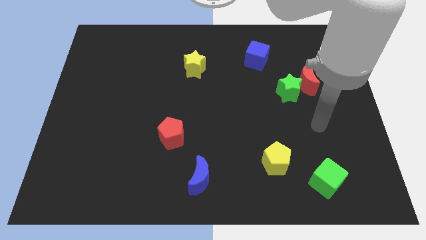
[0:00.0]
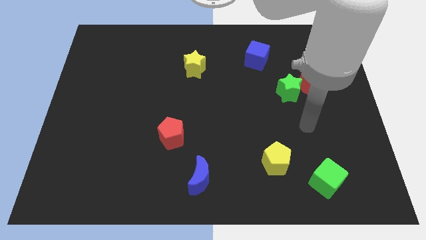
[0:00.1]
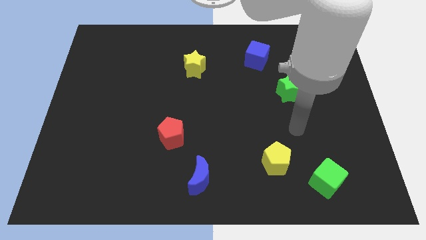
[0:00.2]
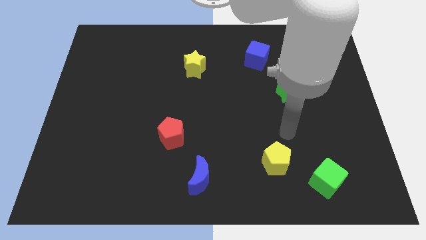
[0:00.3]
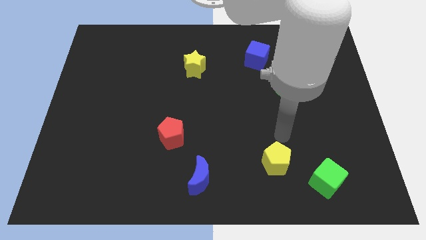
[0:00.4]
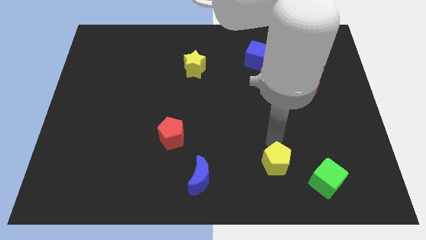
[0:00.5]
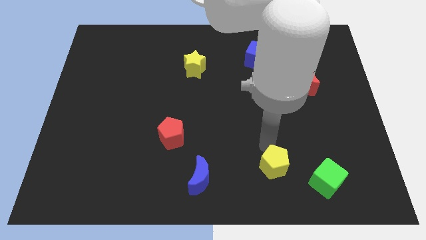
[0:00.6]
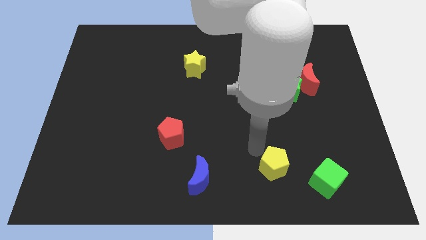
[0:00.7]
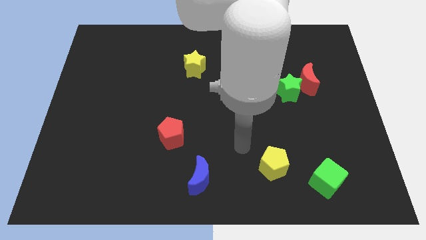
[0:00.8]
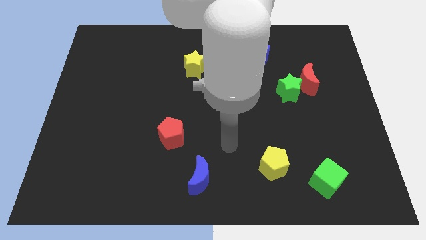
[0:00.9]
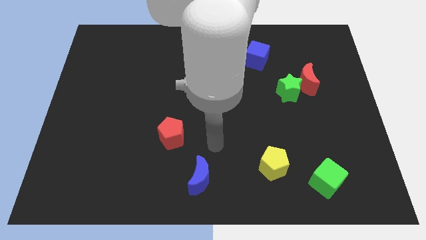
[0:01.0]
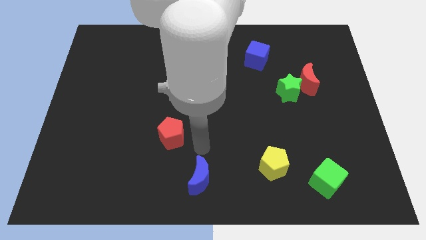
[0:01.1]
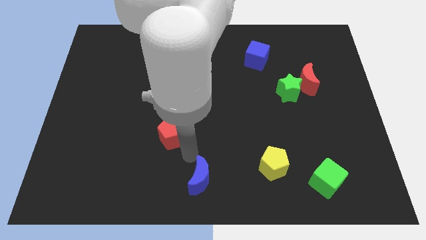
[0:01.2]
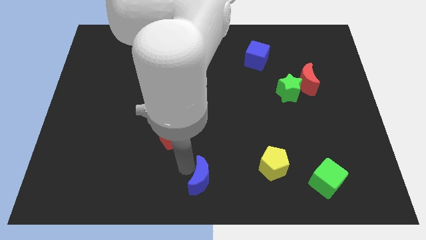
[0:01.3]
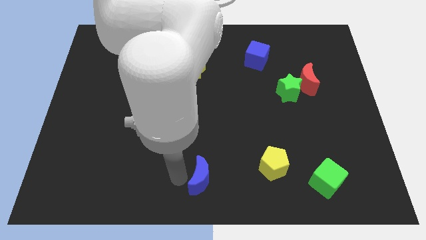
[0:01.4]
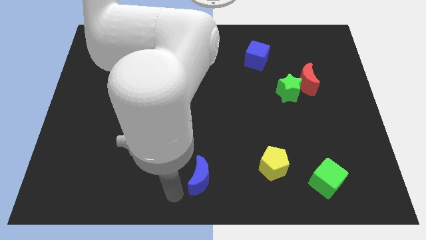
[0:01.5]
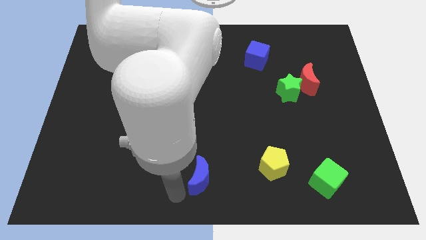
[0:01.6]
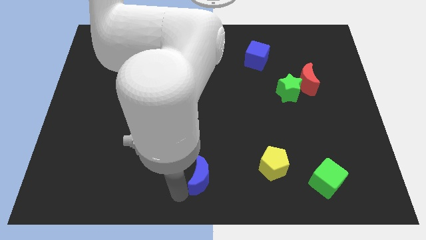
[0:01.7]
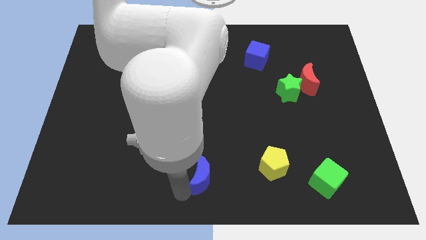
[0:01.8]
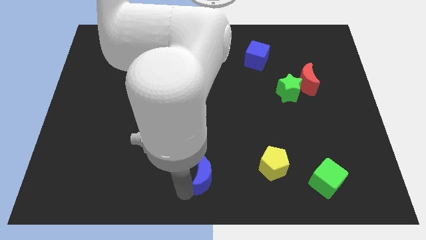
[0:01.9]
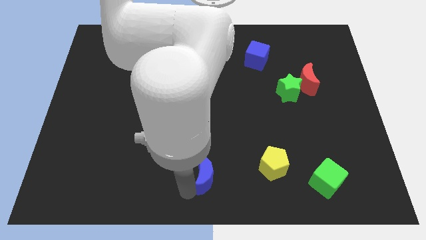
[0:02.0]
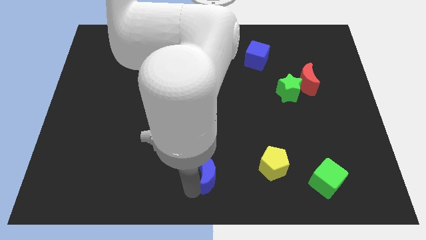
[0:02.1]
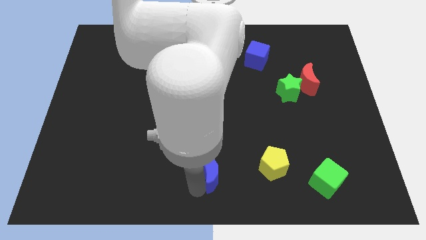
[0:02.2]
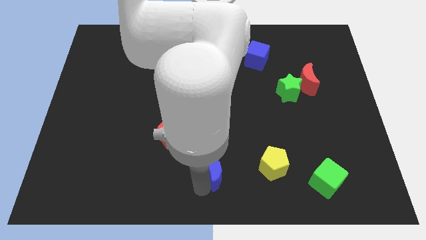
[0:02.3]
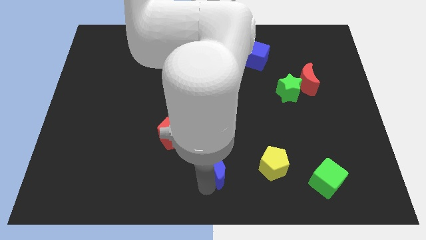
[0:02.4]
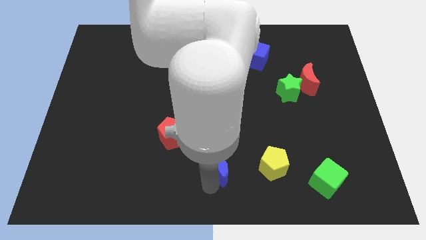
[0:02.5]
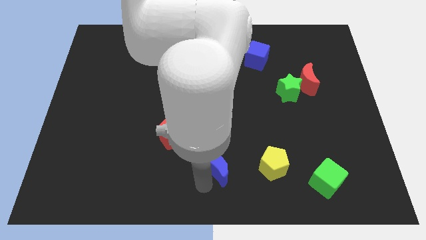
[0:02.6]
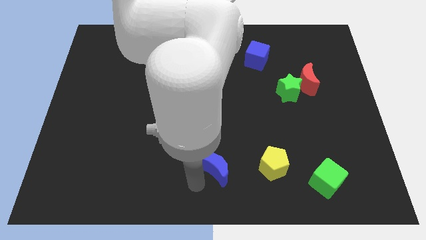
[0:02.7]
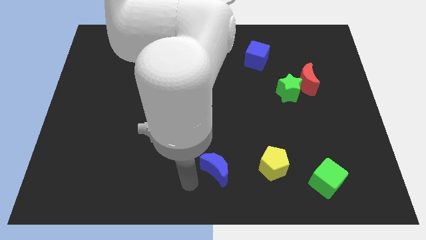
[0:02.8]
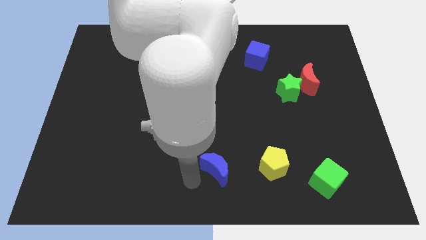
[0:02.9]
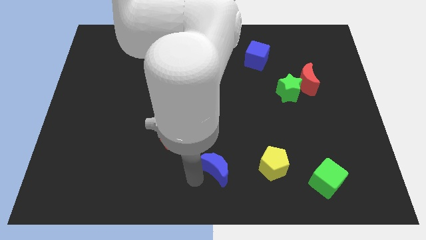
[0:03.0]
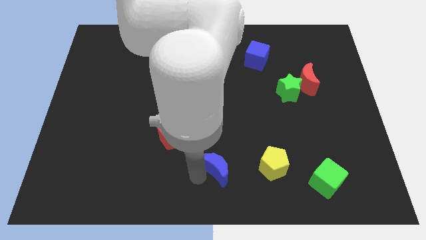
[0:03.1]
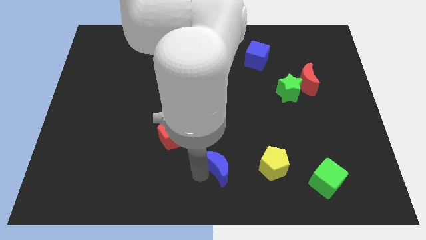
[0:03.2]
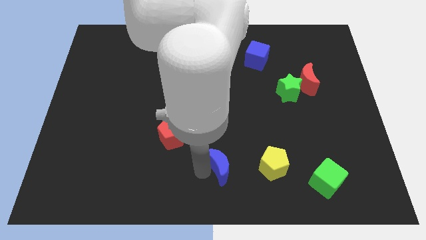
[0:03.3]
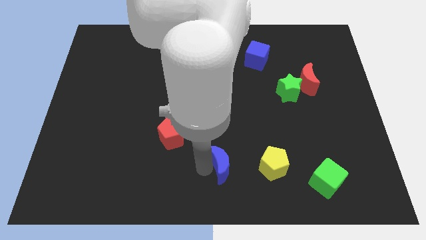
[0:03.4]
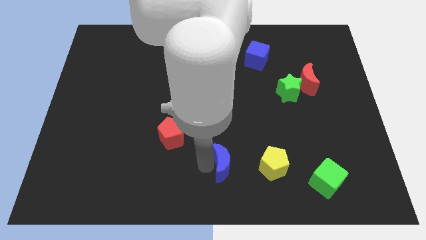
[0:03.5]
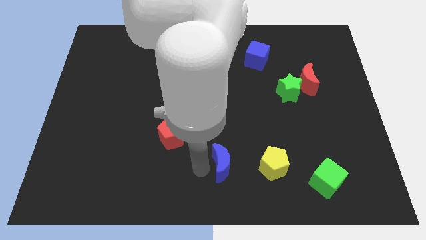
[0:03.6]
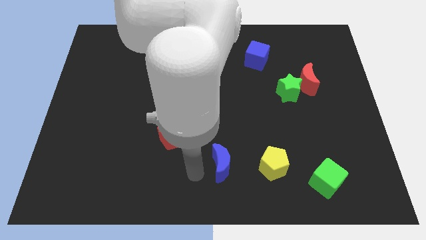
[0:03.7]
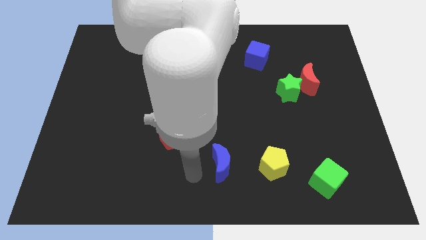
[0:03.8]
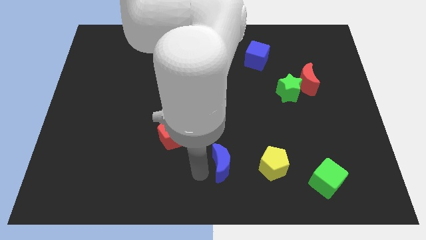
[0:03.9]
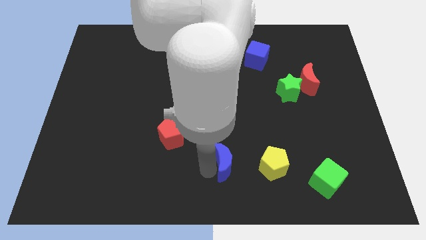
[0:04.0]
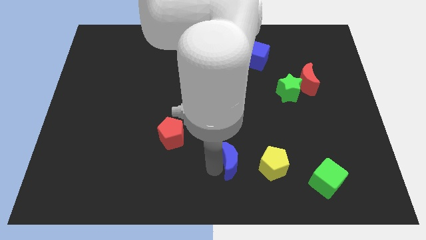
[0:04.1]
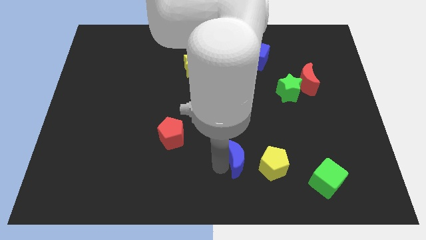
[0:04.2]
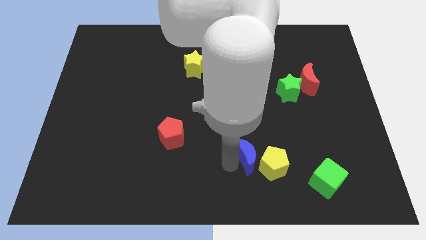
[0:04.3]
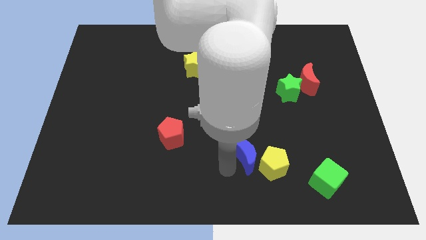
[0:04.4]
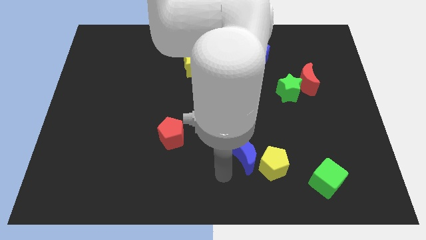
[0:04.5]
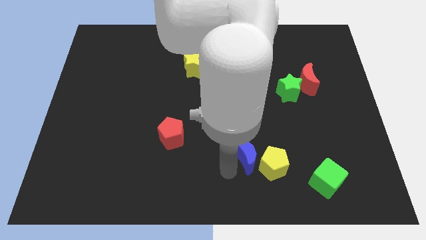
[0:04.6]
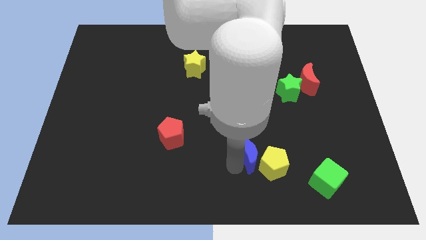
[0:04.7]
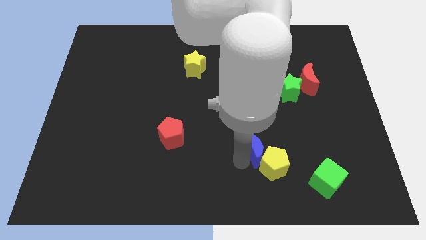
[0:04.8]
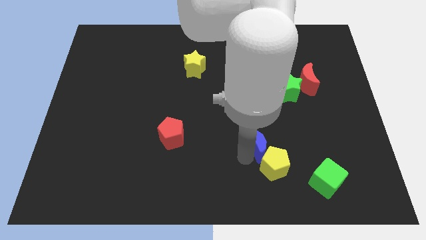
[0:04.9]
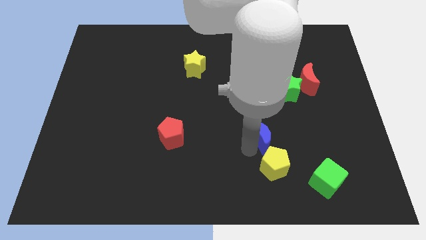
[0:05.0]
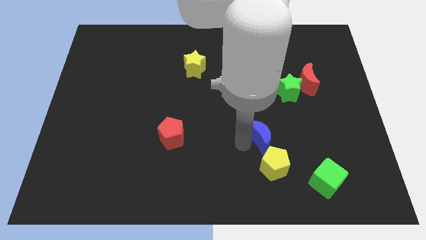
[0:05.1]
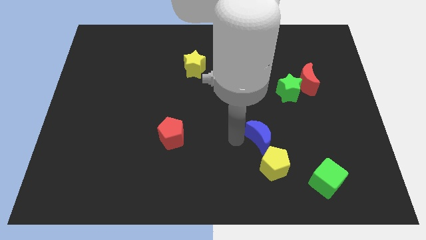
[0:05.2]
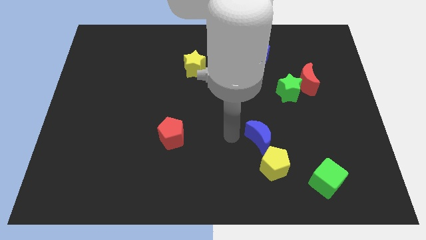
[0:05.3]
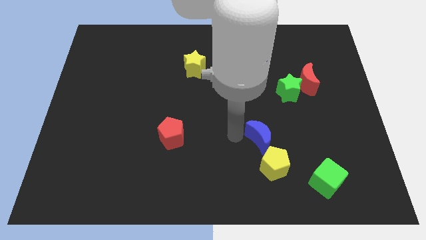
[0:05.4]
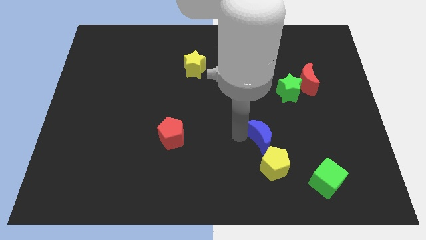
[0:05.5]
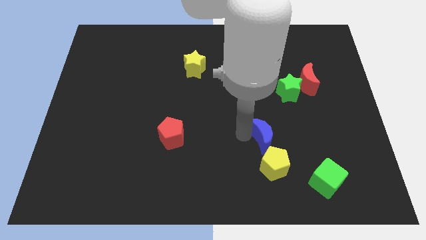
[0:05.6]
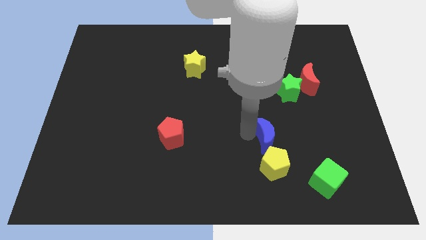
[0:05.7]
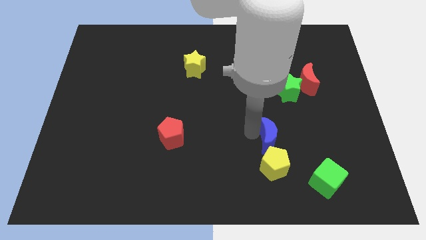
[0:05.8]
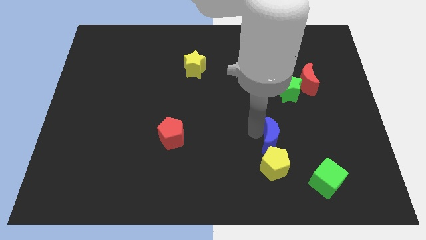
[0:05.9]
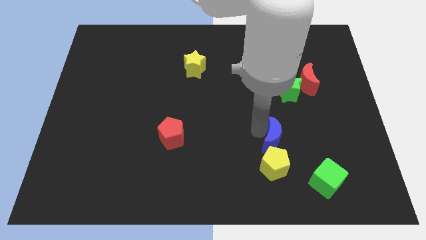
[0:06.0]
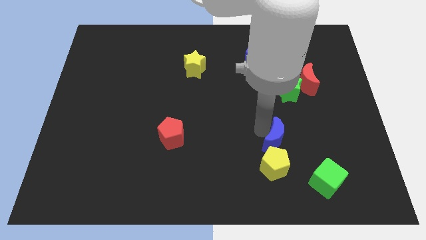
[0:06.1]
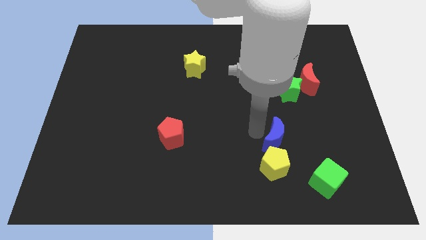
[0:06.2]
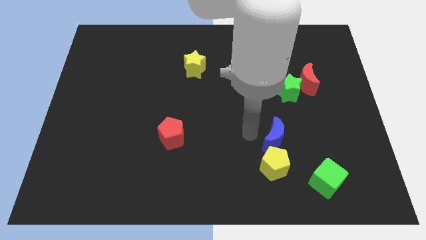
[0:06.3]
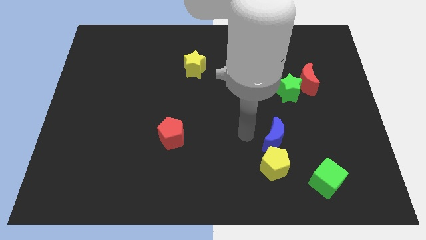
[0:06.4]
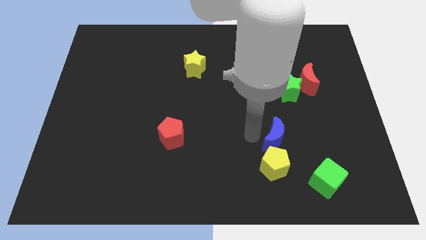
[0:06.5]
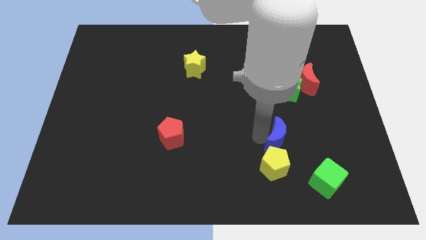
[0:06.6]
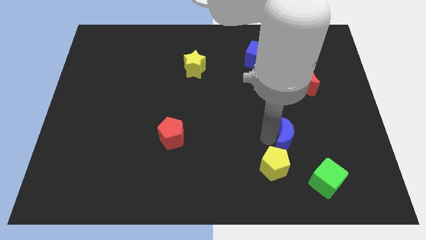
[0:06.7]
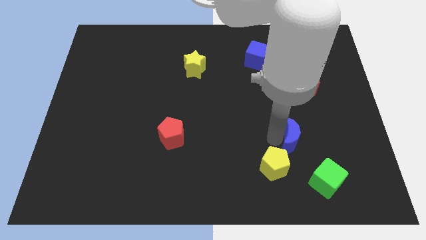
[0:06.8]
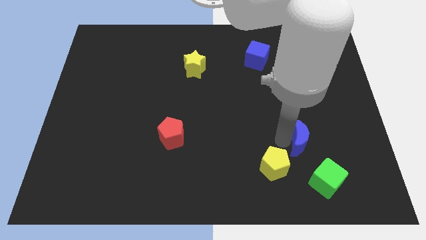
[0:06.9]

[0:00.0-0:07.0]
slide the blue moon to the top side of the green cube

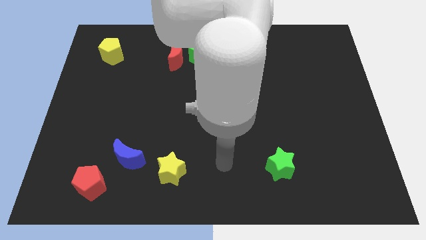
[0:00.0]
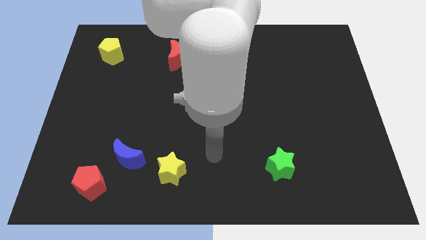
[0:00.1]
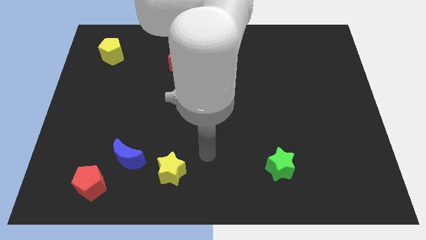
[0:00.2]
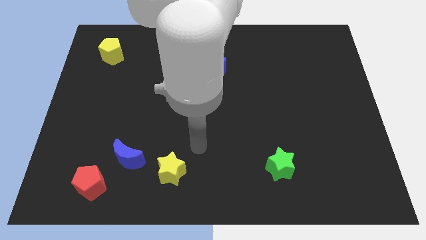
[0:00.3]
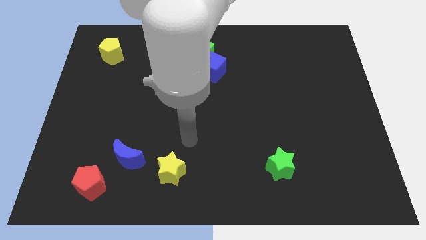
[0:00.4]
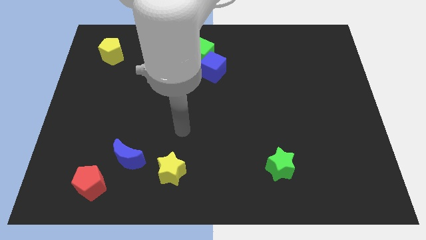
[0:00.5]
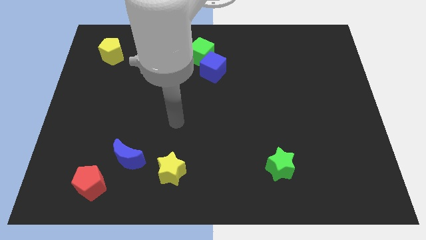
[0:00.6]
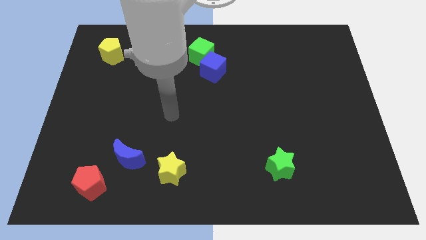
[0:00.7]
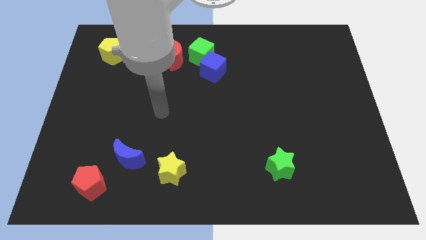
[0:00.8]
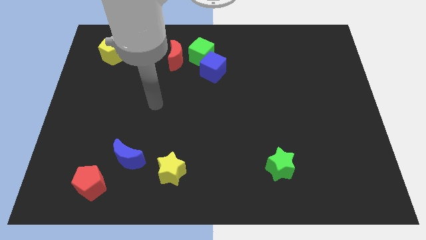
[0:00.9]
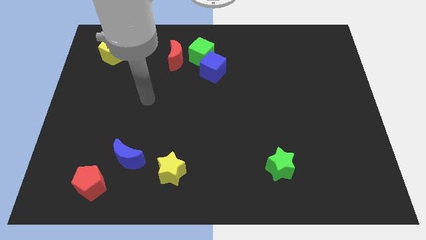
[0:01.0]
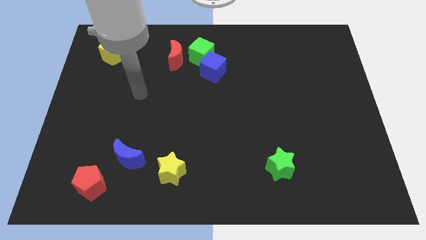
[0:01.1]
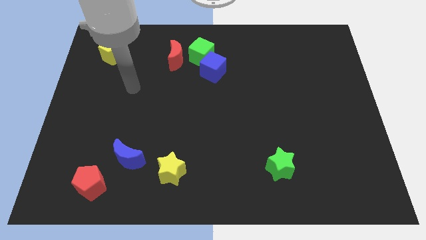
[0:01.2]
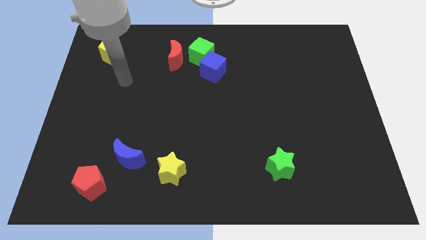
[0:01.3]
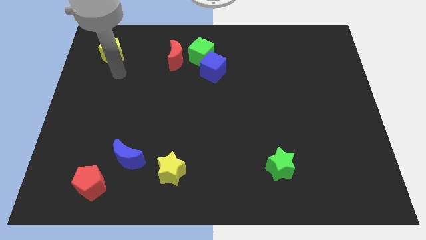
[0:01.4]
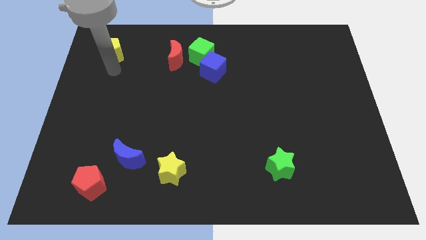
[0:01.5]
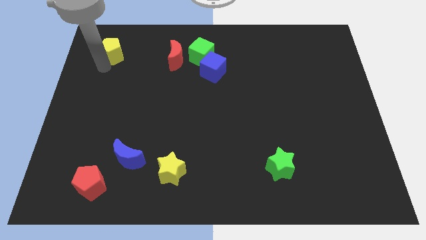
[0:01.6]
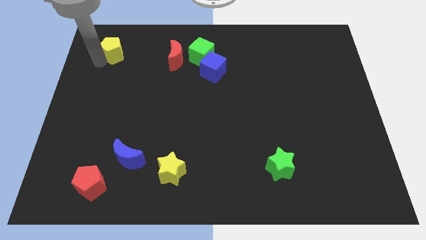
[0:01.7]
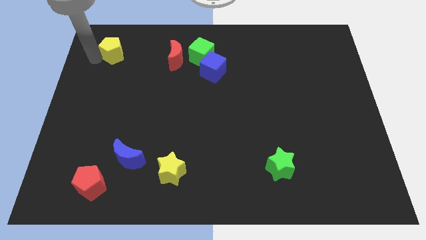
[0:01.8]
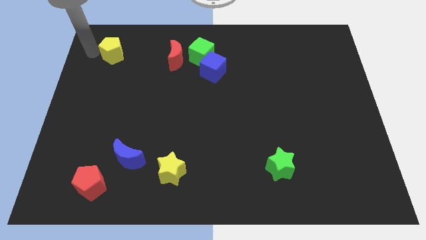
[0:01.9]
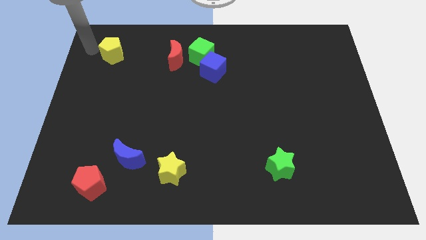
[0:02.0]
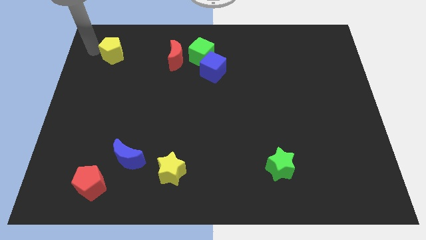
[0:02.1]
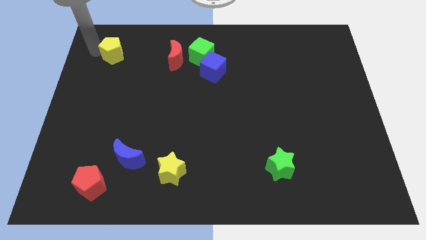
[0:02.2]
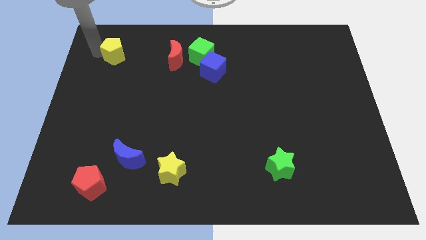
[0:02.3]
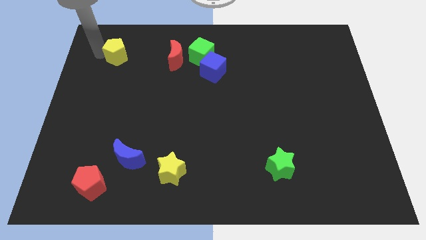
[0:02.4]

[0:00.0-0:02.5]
push the yellow pentagon left of the red moon
